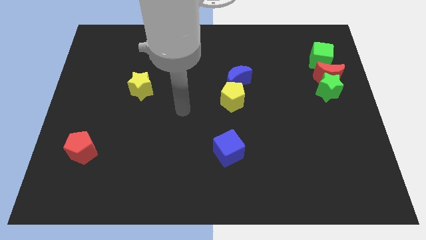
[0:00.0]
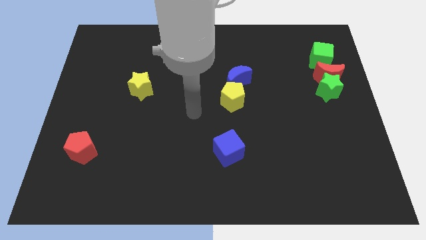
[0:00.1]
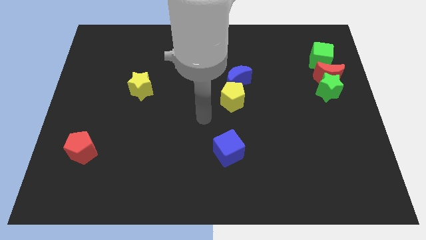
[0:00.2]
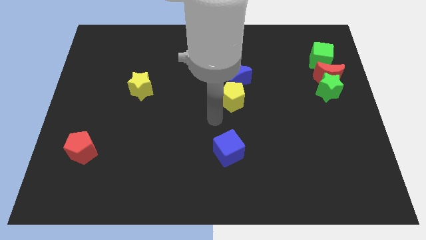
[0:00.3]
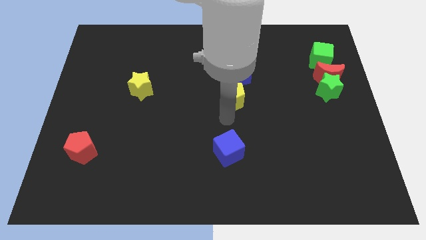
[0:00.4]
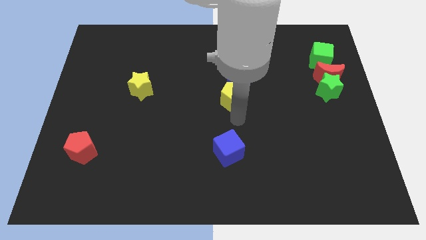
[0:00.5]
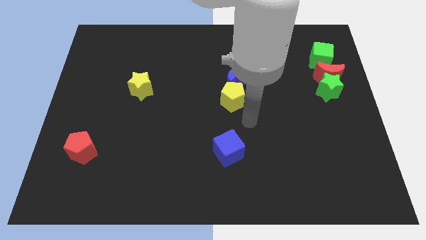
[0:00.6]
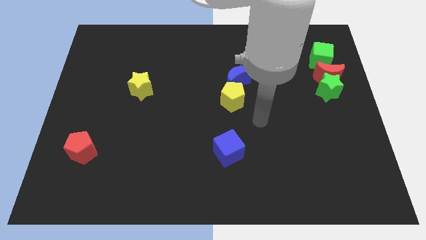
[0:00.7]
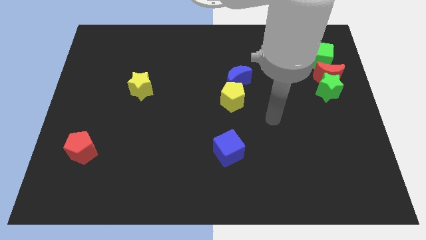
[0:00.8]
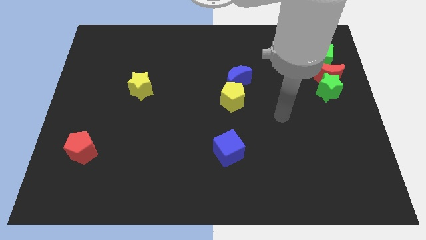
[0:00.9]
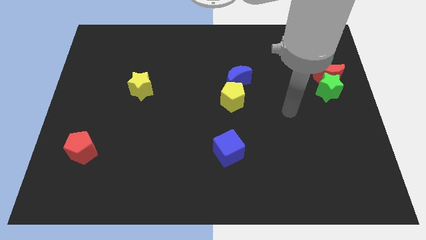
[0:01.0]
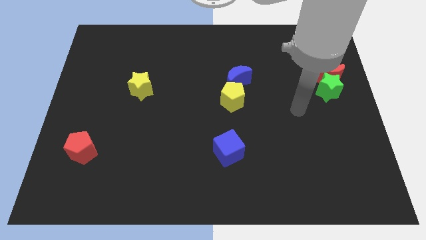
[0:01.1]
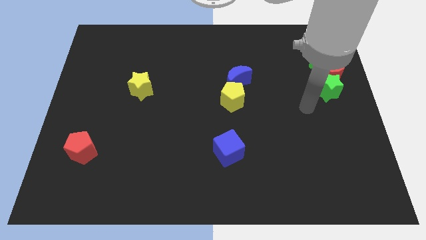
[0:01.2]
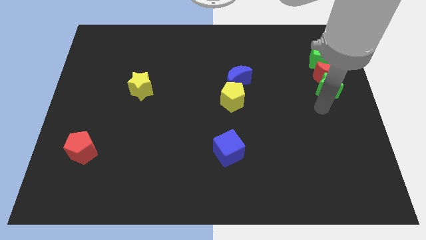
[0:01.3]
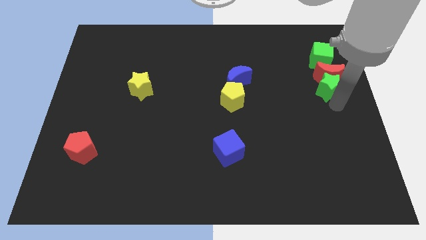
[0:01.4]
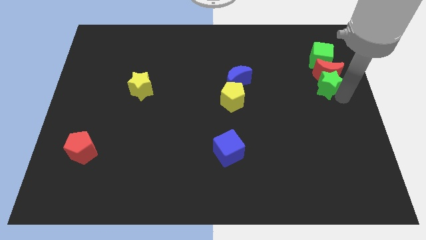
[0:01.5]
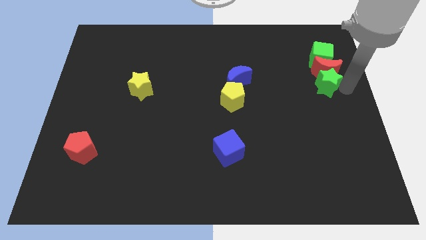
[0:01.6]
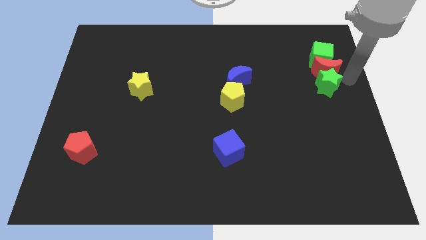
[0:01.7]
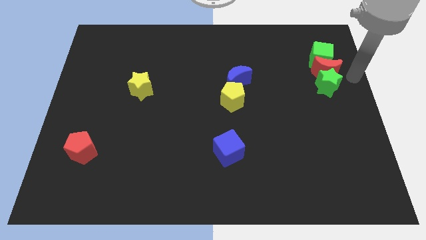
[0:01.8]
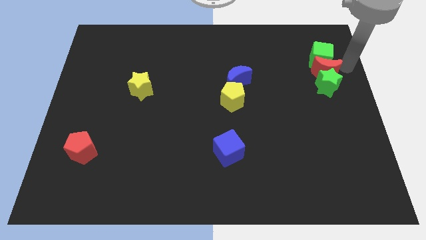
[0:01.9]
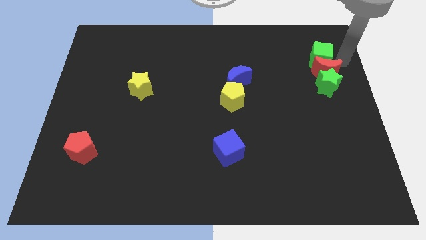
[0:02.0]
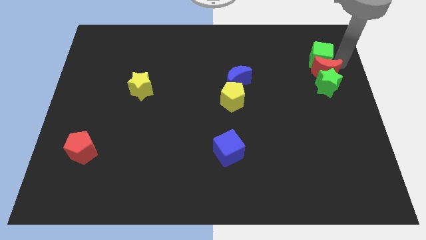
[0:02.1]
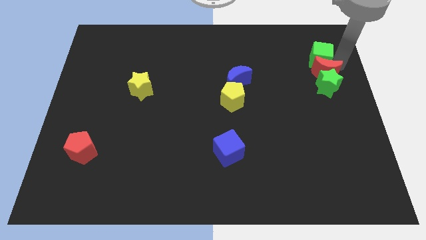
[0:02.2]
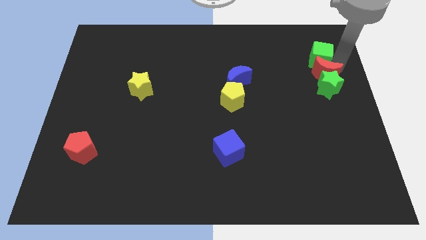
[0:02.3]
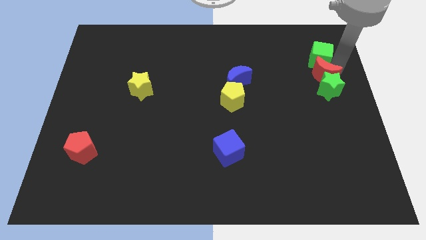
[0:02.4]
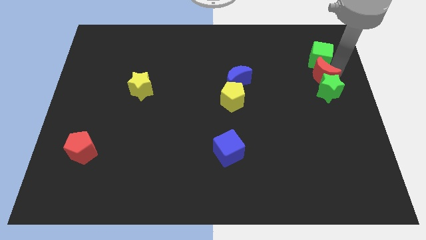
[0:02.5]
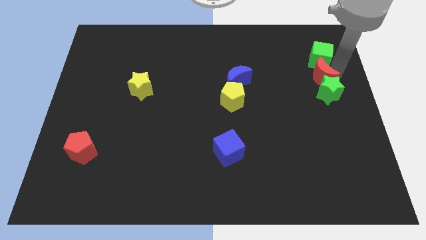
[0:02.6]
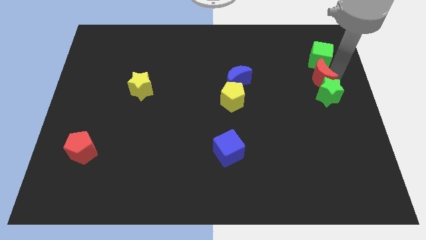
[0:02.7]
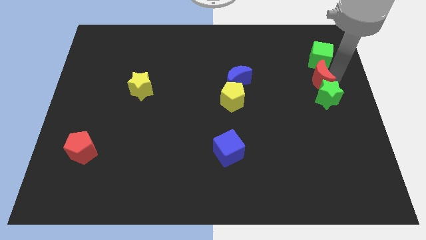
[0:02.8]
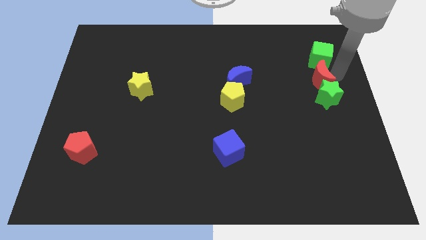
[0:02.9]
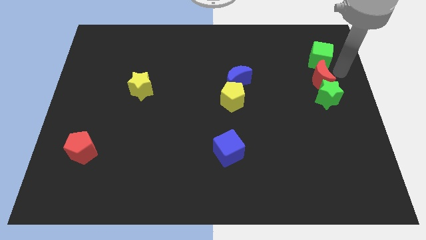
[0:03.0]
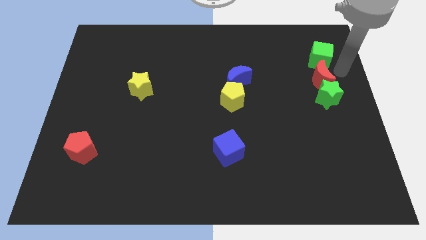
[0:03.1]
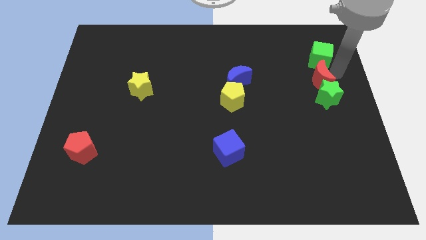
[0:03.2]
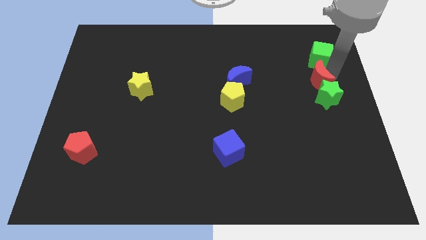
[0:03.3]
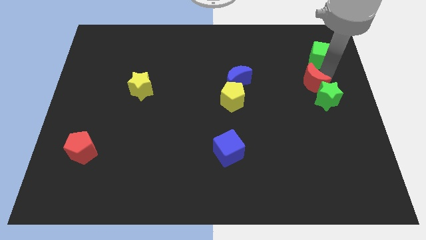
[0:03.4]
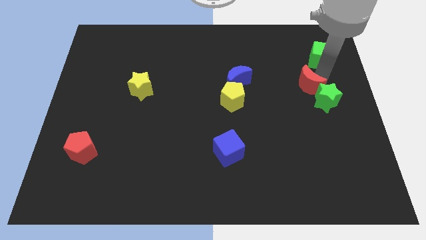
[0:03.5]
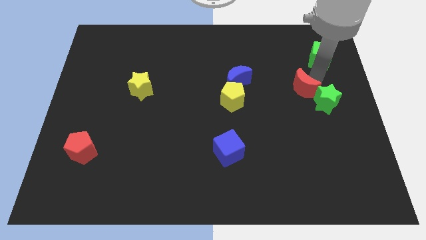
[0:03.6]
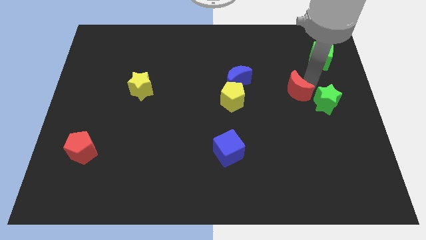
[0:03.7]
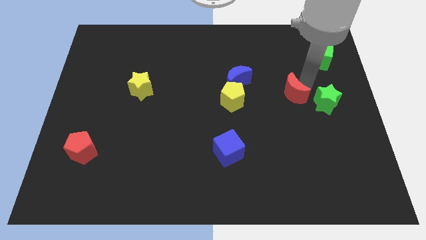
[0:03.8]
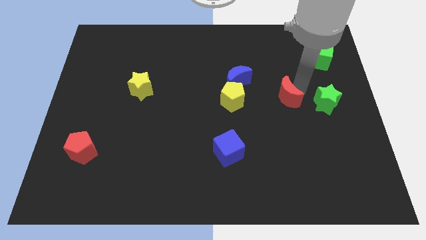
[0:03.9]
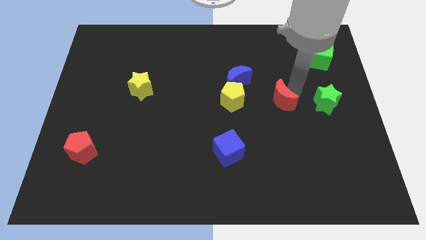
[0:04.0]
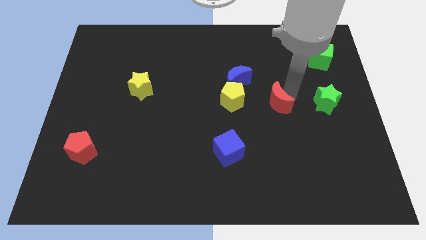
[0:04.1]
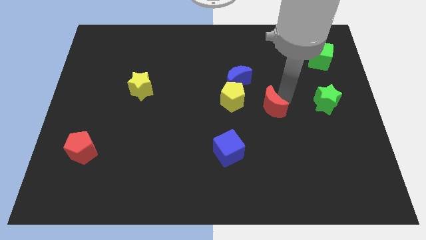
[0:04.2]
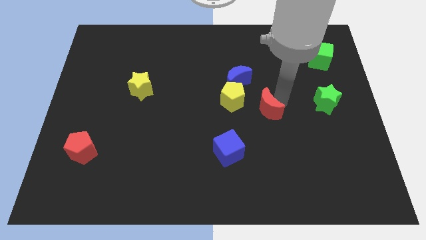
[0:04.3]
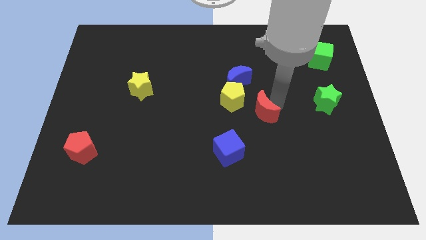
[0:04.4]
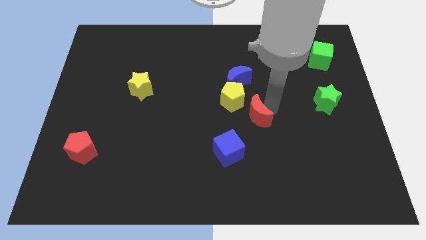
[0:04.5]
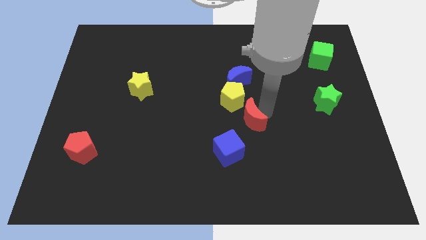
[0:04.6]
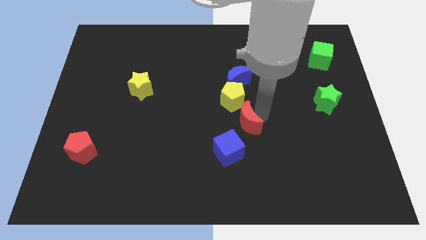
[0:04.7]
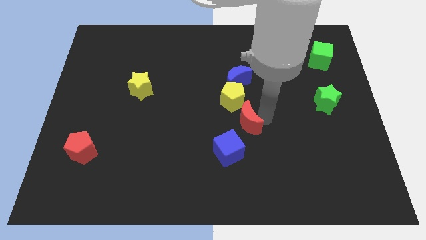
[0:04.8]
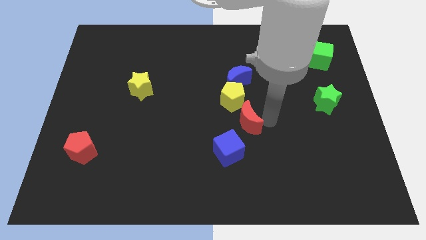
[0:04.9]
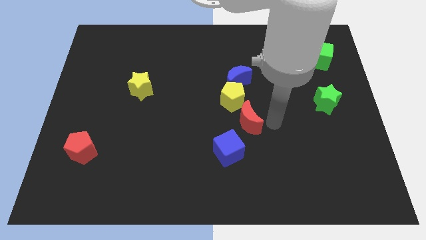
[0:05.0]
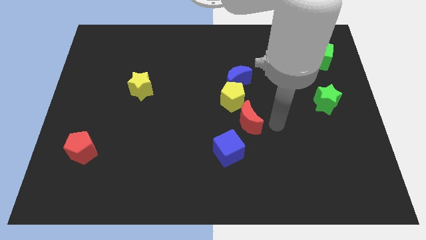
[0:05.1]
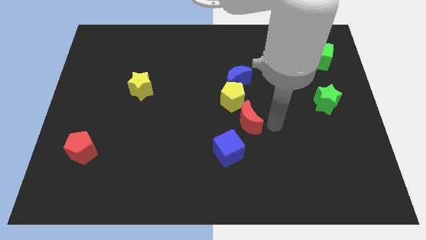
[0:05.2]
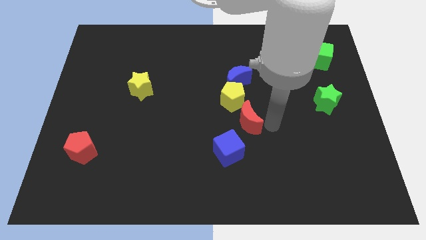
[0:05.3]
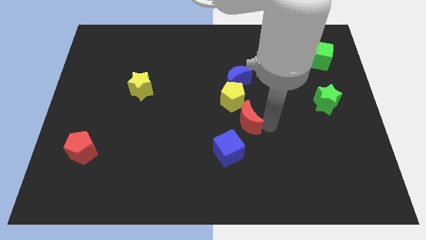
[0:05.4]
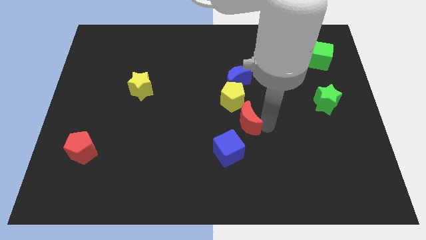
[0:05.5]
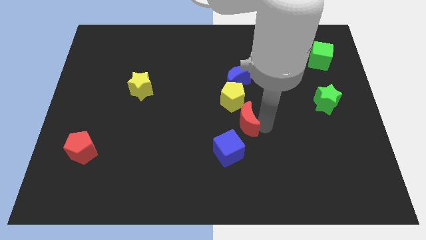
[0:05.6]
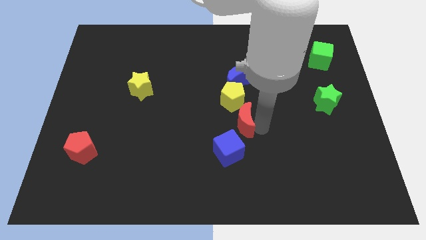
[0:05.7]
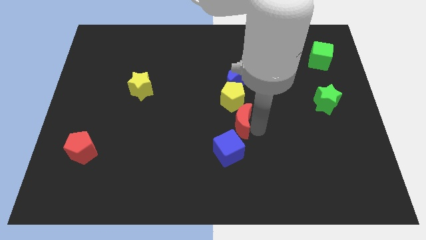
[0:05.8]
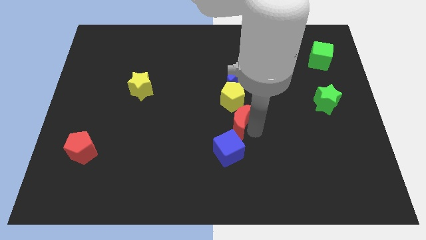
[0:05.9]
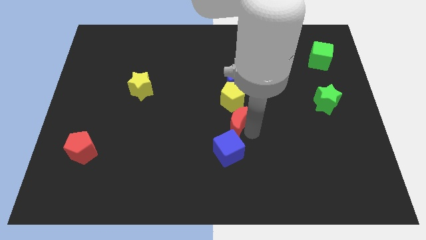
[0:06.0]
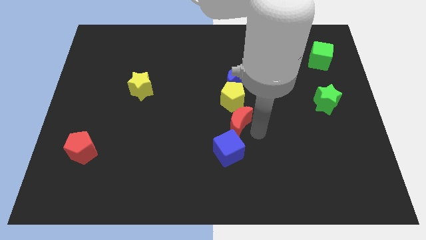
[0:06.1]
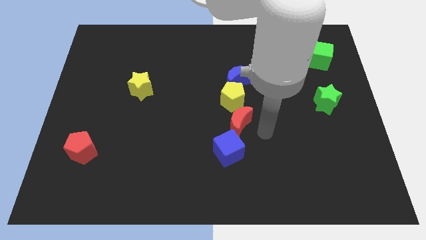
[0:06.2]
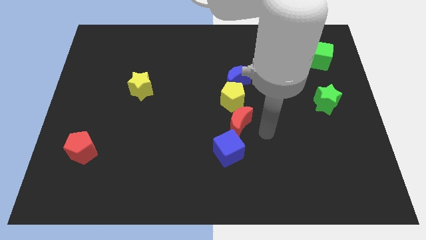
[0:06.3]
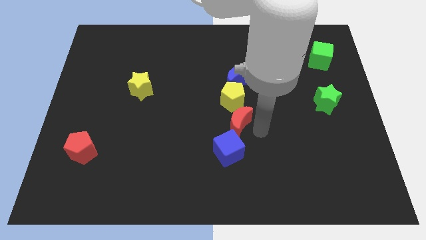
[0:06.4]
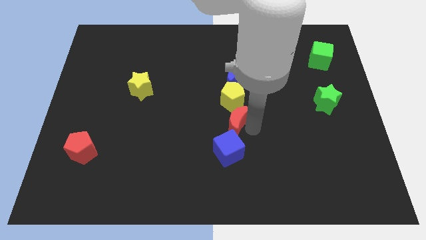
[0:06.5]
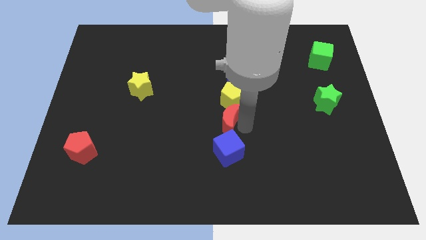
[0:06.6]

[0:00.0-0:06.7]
push the red moon to the bottom left of the yellow pentagon

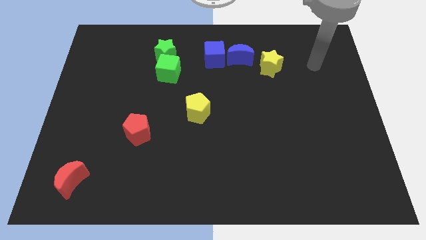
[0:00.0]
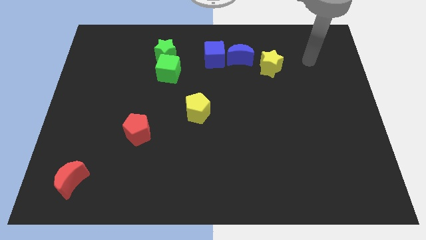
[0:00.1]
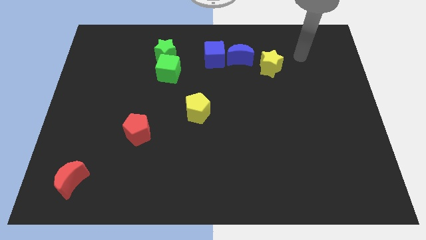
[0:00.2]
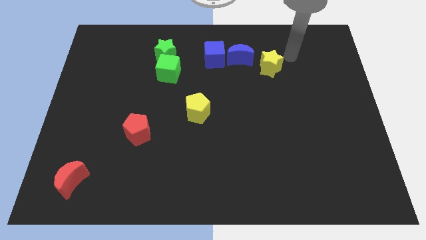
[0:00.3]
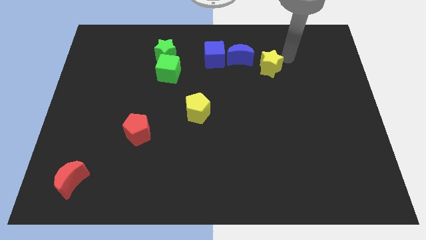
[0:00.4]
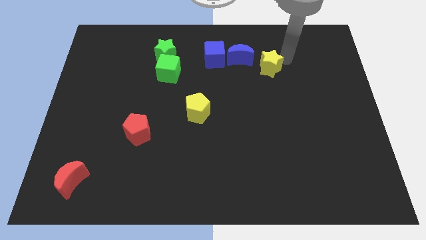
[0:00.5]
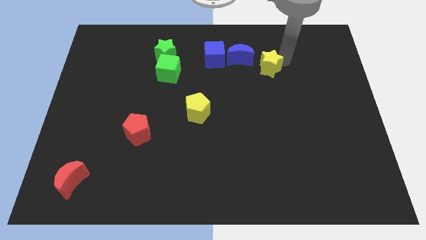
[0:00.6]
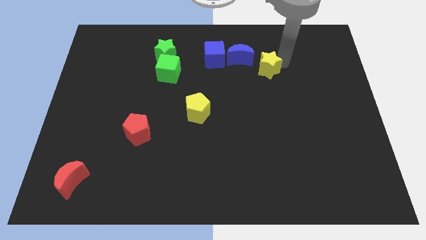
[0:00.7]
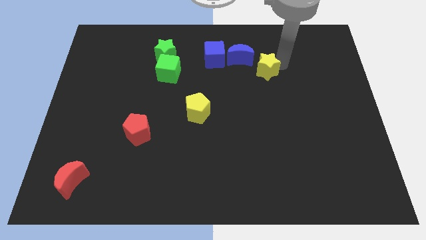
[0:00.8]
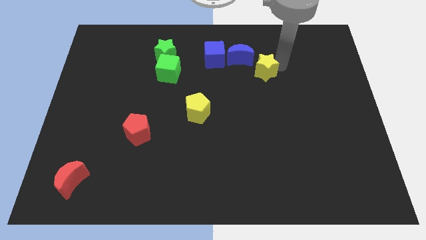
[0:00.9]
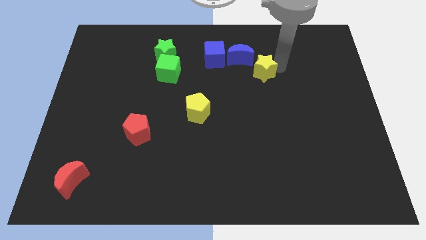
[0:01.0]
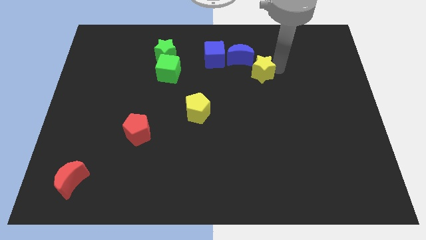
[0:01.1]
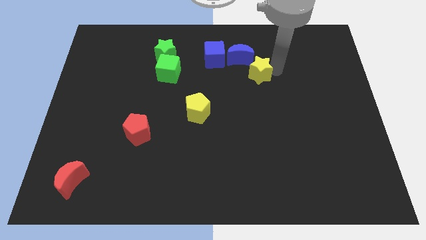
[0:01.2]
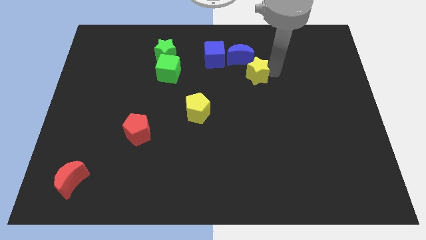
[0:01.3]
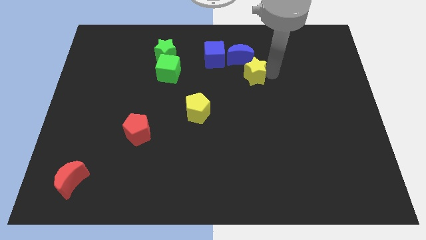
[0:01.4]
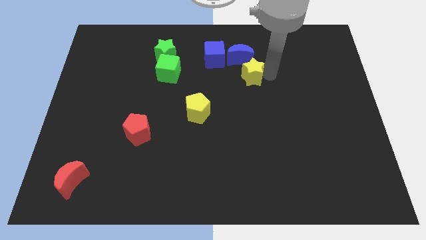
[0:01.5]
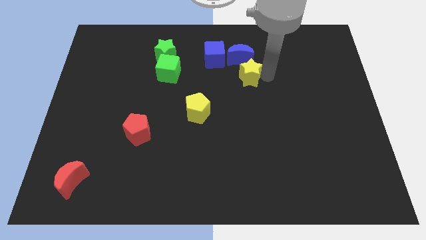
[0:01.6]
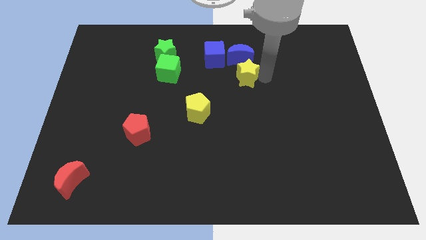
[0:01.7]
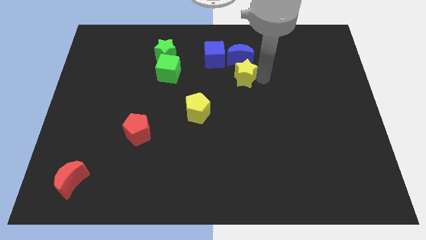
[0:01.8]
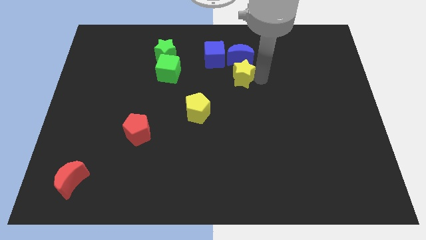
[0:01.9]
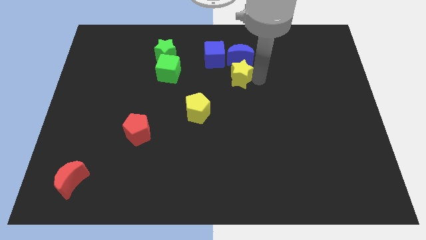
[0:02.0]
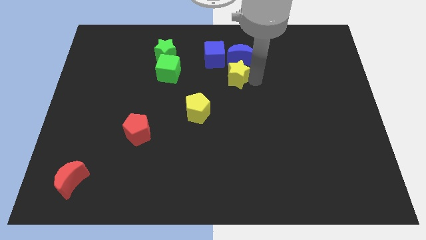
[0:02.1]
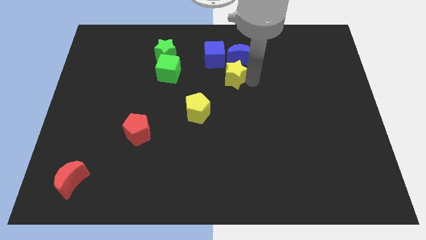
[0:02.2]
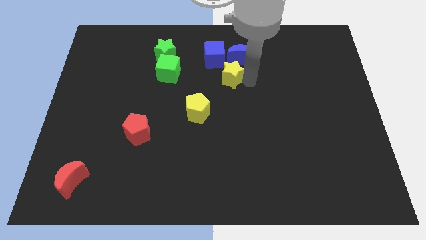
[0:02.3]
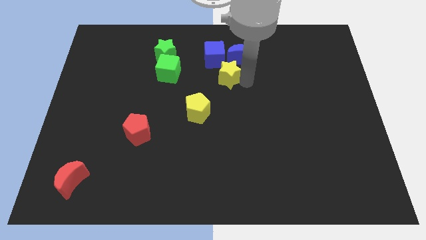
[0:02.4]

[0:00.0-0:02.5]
slide the yellow star just right of the green cube
